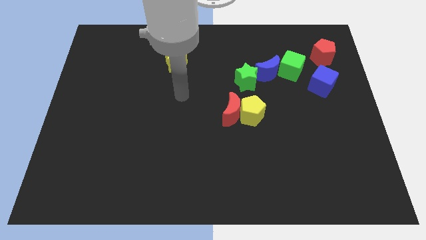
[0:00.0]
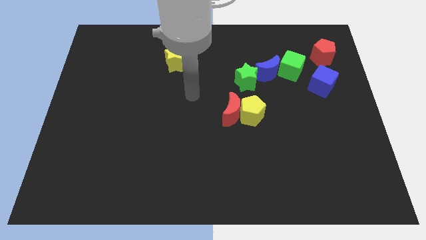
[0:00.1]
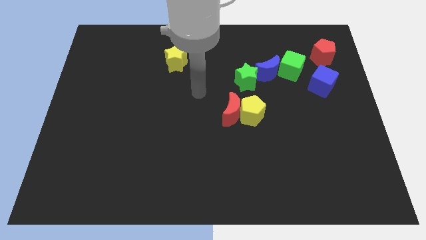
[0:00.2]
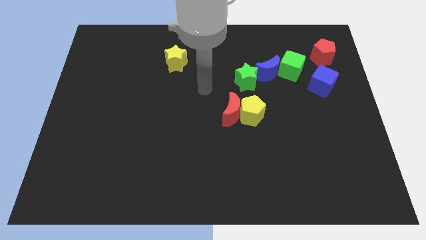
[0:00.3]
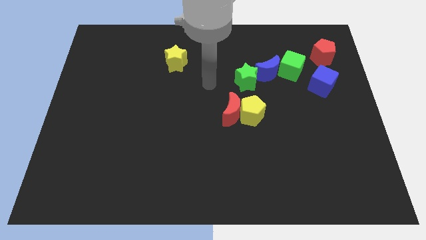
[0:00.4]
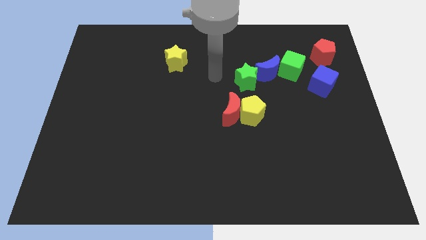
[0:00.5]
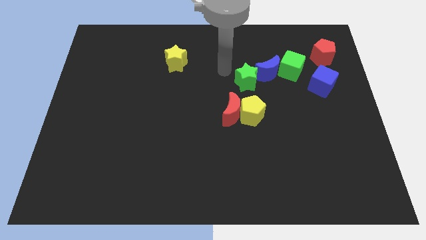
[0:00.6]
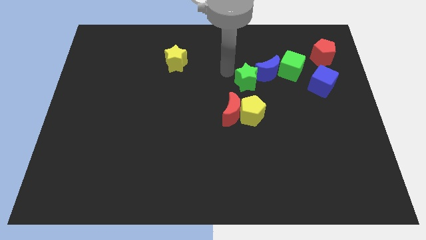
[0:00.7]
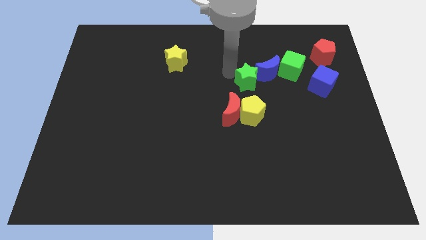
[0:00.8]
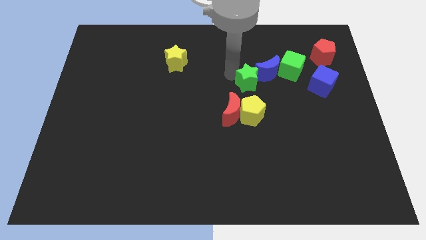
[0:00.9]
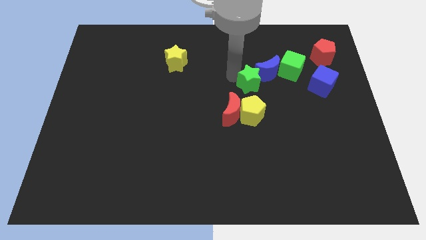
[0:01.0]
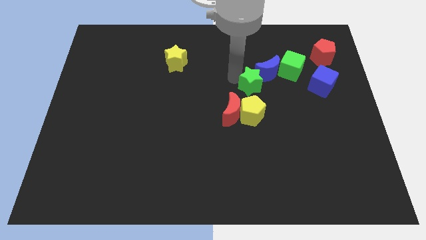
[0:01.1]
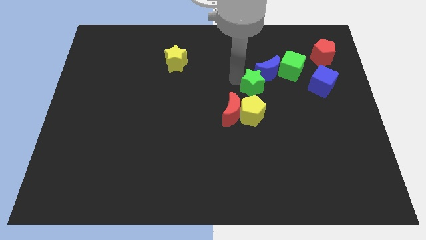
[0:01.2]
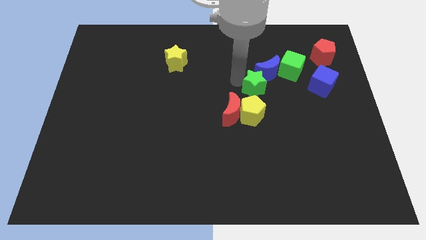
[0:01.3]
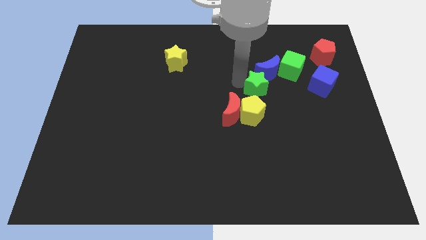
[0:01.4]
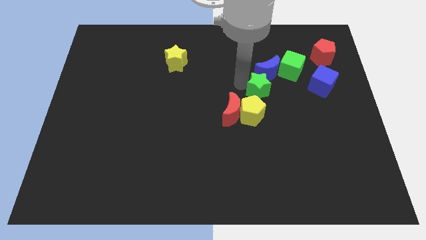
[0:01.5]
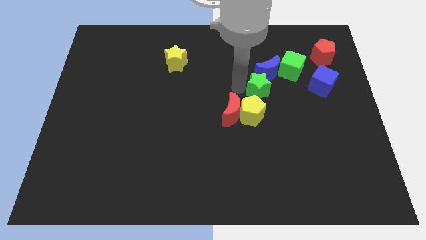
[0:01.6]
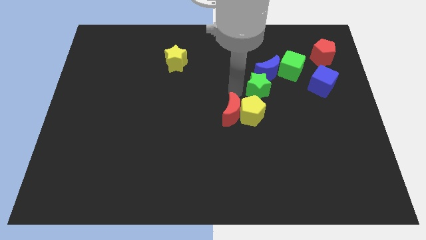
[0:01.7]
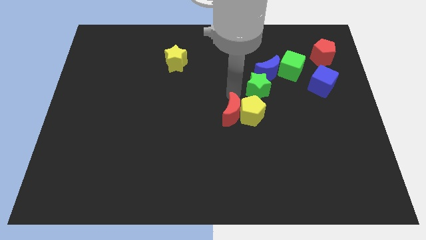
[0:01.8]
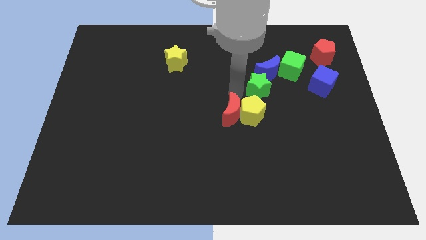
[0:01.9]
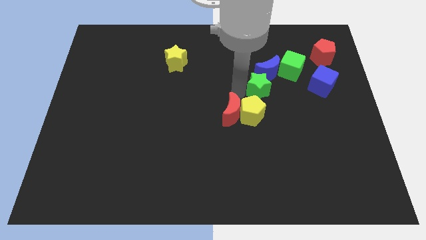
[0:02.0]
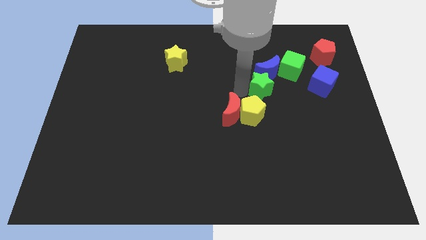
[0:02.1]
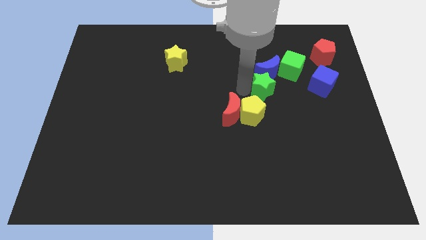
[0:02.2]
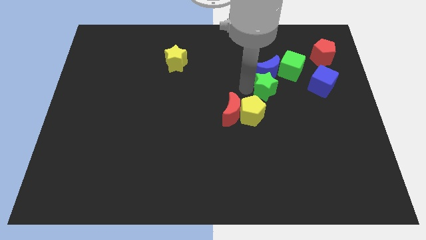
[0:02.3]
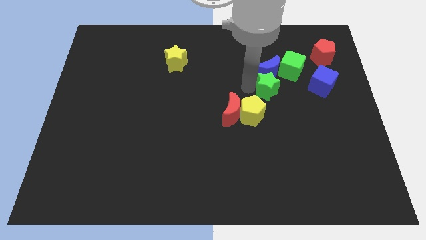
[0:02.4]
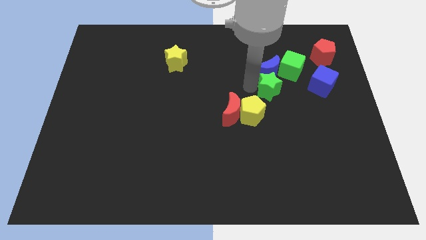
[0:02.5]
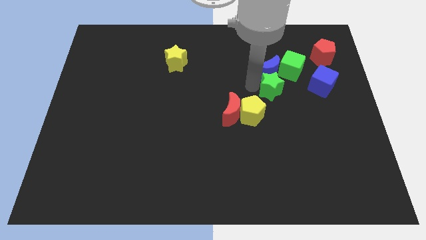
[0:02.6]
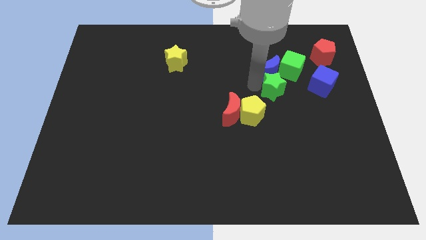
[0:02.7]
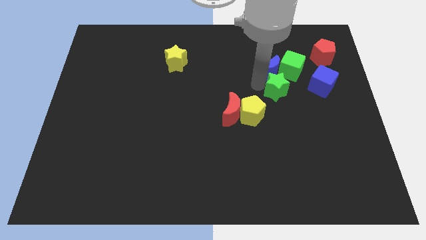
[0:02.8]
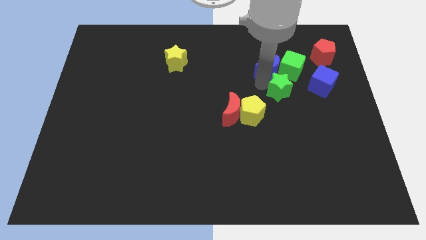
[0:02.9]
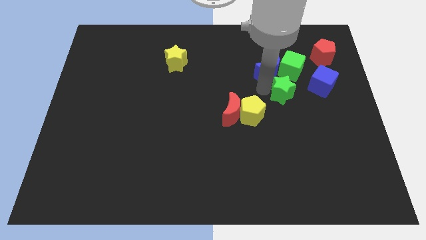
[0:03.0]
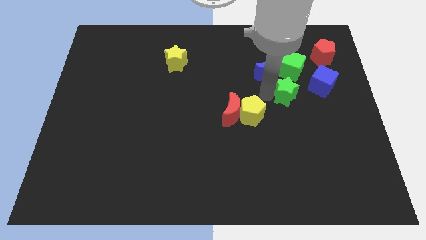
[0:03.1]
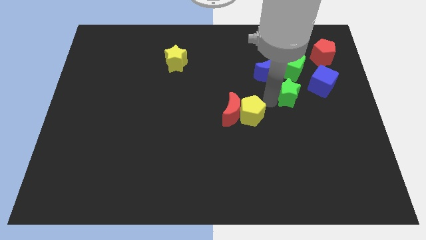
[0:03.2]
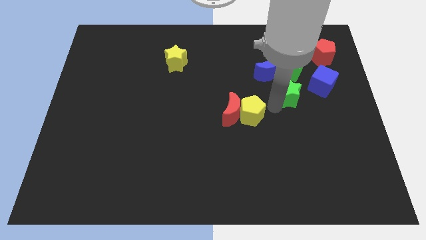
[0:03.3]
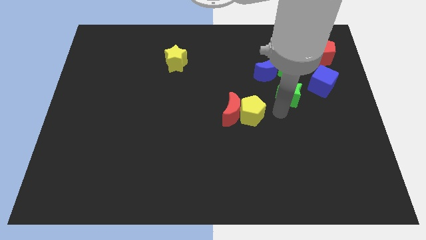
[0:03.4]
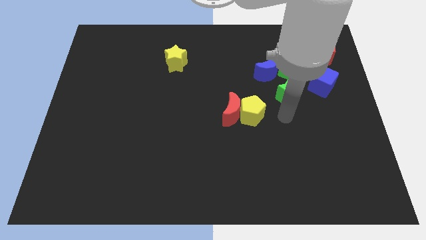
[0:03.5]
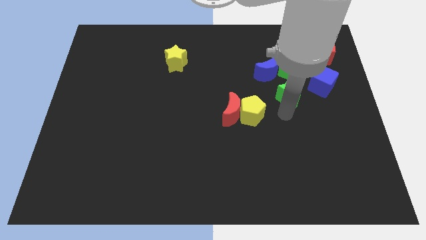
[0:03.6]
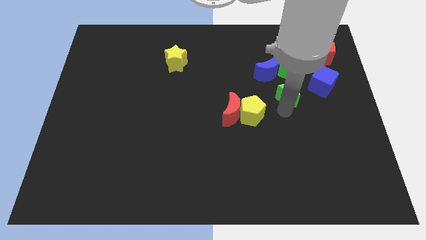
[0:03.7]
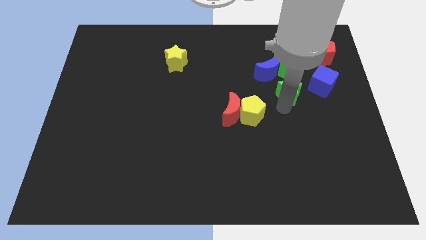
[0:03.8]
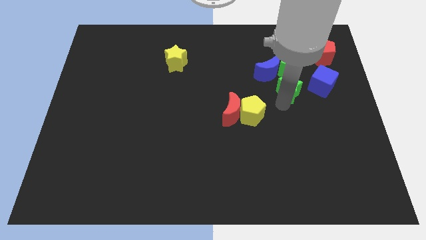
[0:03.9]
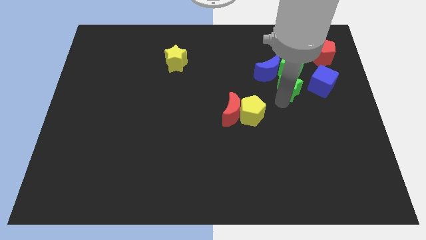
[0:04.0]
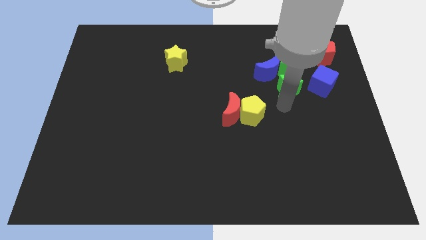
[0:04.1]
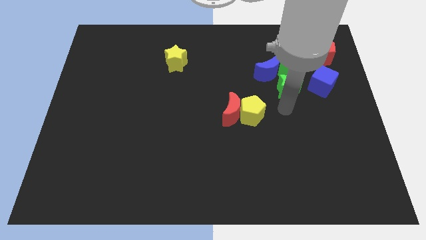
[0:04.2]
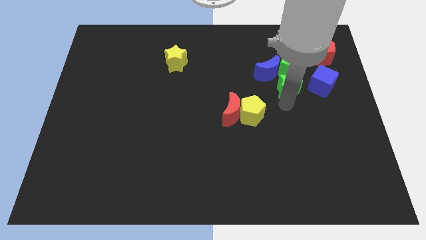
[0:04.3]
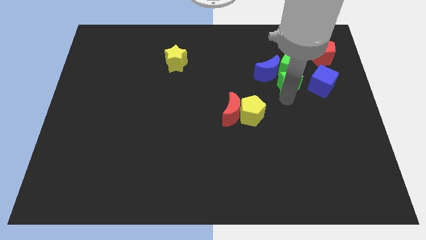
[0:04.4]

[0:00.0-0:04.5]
move the green star towards the green cube

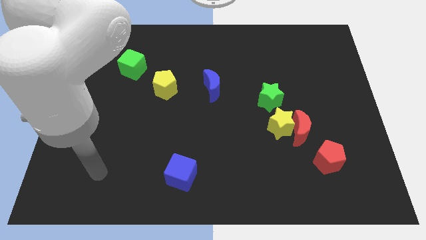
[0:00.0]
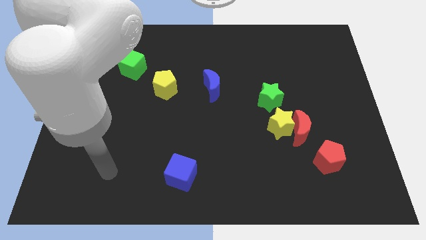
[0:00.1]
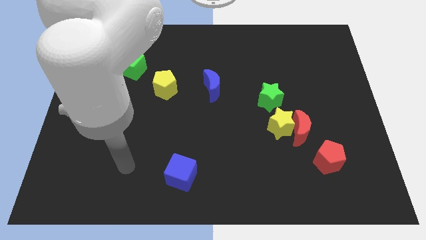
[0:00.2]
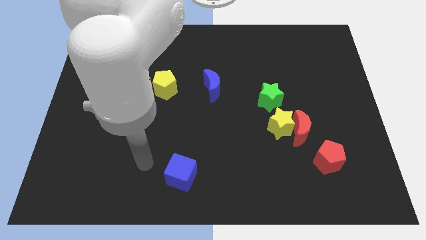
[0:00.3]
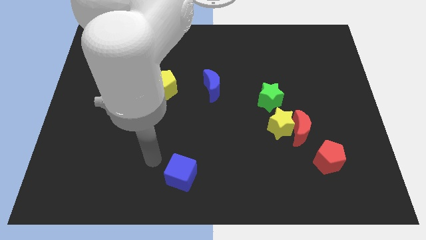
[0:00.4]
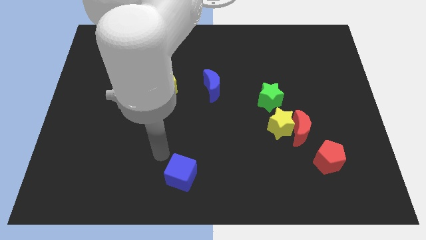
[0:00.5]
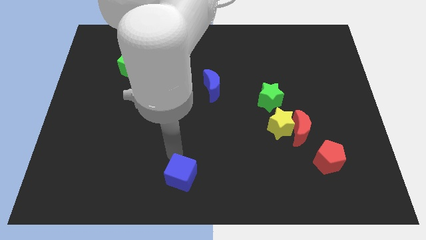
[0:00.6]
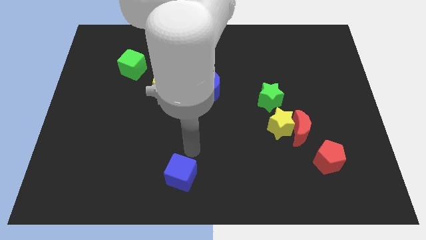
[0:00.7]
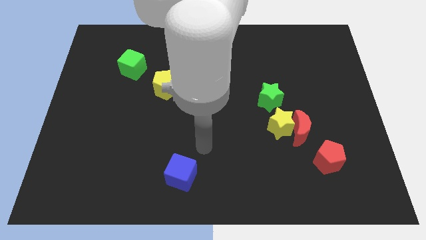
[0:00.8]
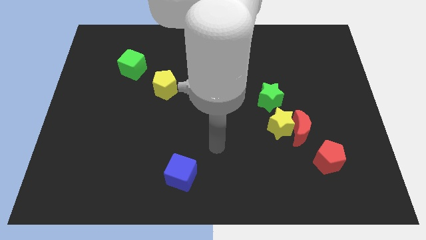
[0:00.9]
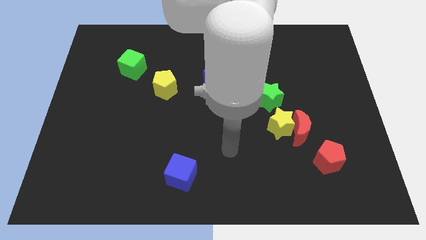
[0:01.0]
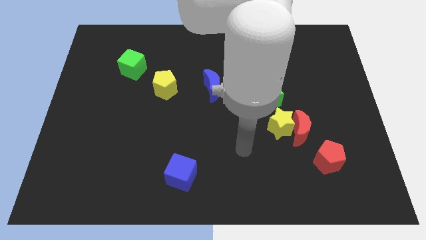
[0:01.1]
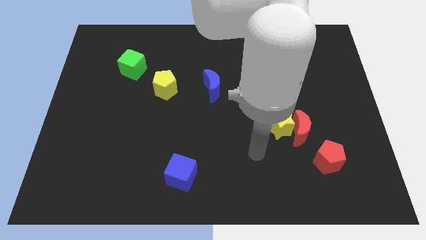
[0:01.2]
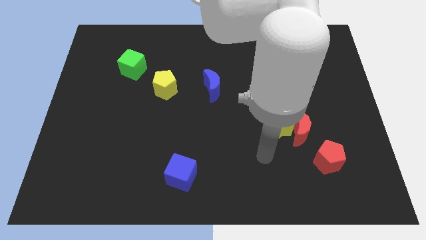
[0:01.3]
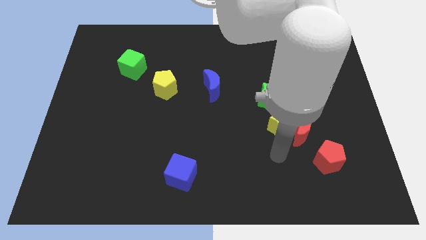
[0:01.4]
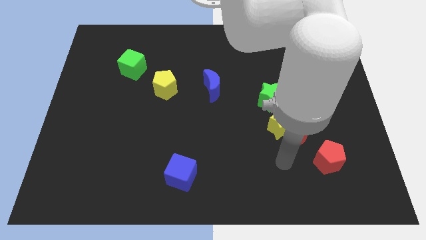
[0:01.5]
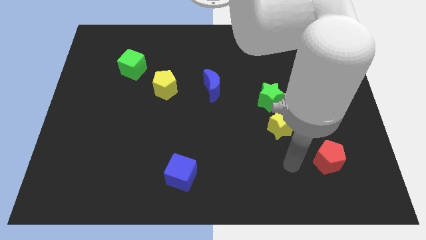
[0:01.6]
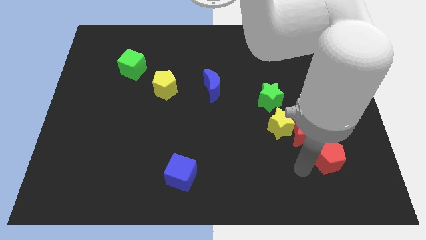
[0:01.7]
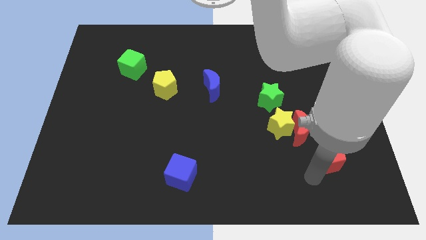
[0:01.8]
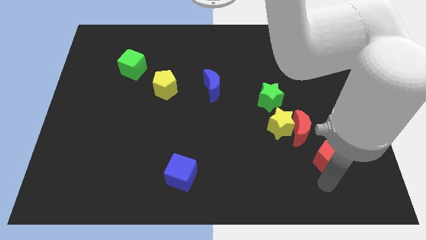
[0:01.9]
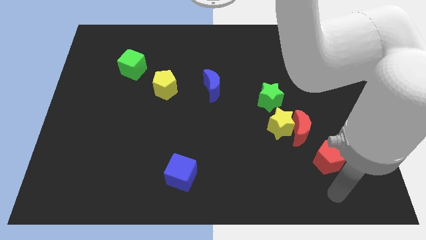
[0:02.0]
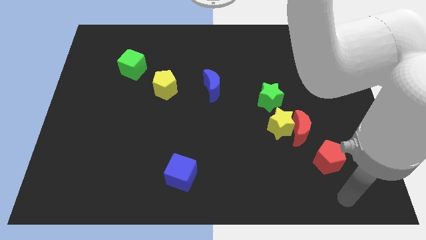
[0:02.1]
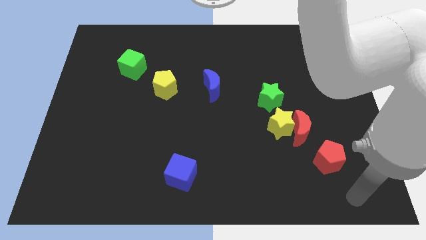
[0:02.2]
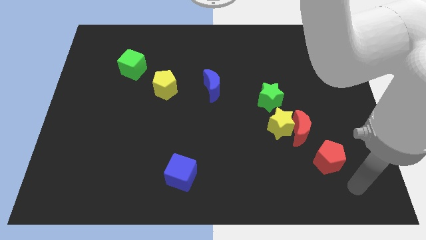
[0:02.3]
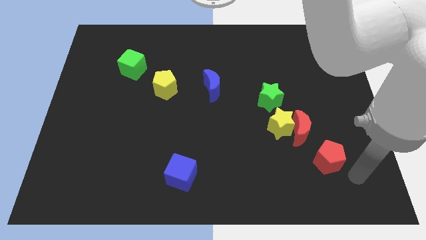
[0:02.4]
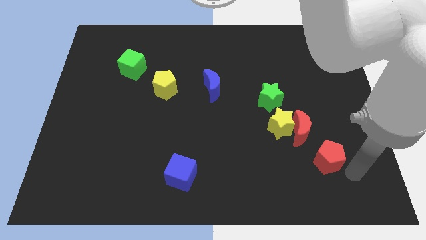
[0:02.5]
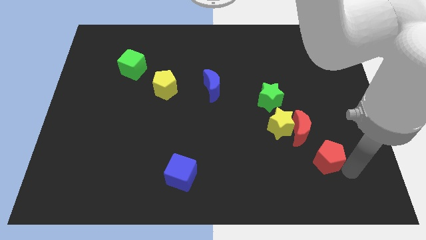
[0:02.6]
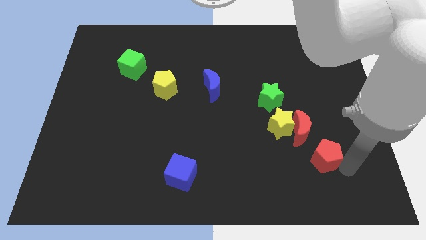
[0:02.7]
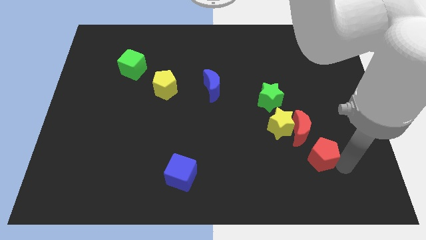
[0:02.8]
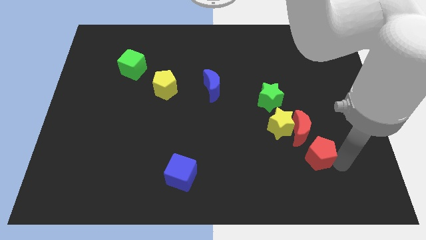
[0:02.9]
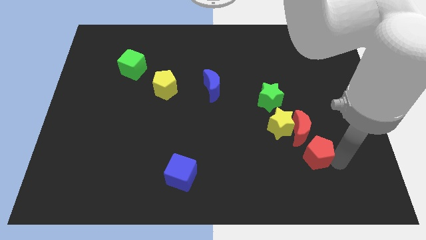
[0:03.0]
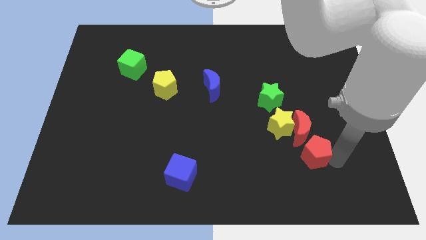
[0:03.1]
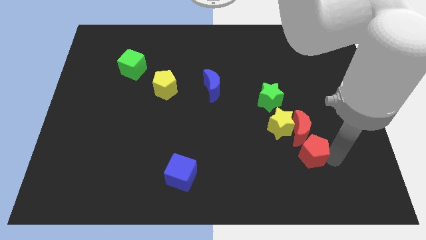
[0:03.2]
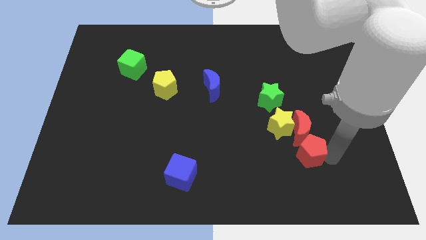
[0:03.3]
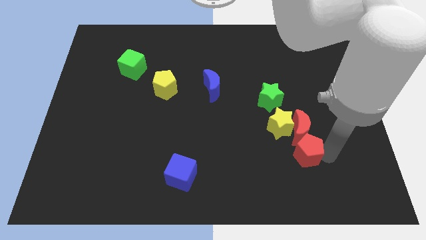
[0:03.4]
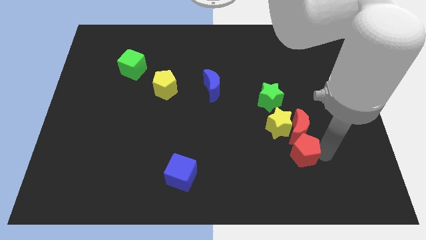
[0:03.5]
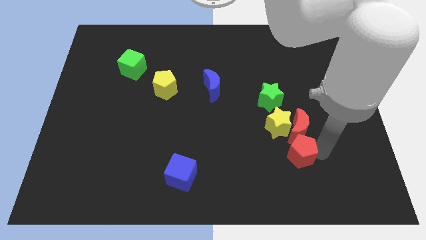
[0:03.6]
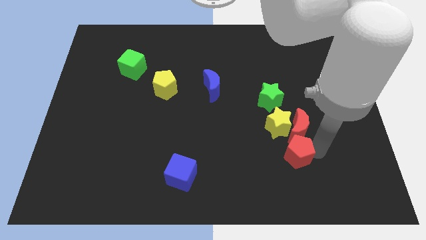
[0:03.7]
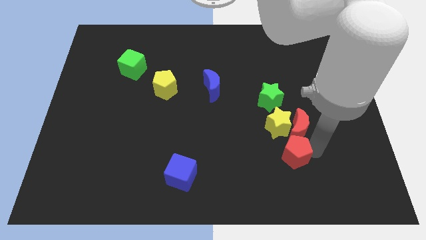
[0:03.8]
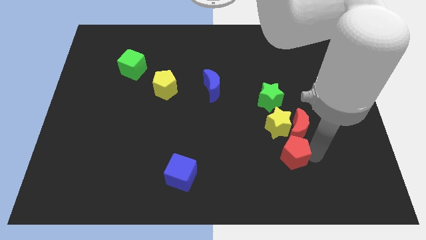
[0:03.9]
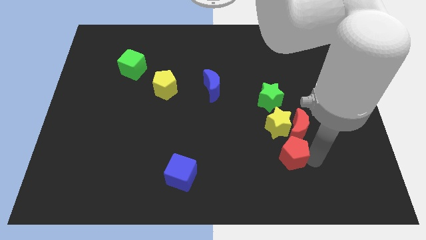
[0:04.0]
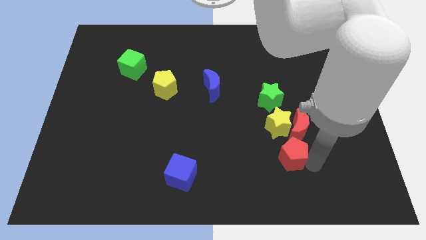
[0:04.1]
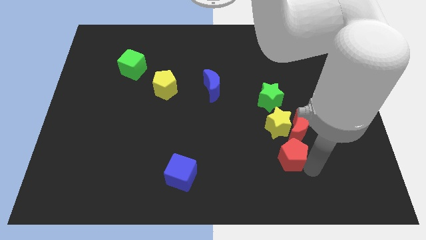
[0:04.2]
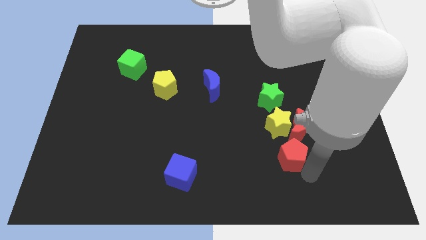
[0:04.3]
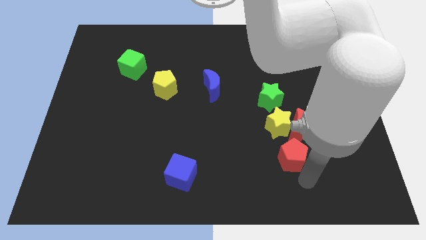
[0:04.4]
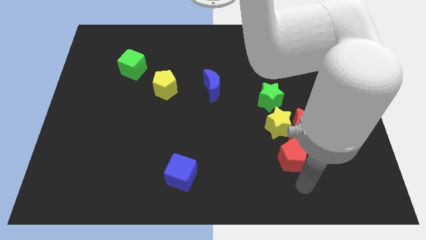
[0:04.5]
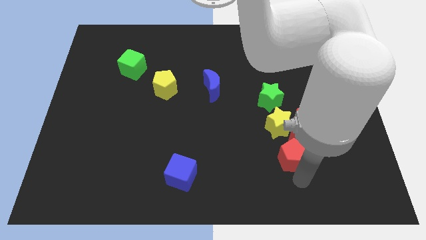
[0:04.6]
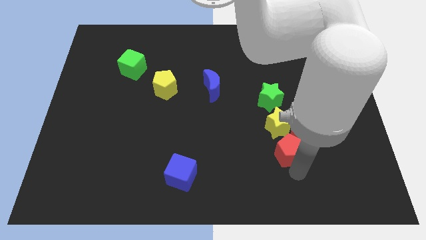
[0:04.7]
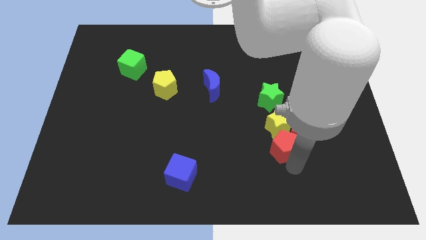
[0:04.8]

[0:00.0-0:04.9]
move the red pentagon to the yellow star
